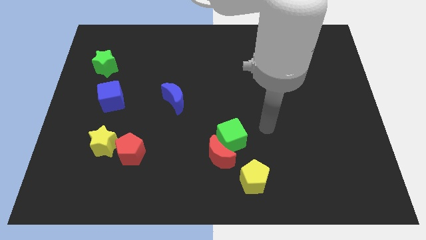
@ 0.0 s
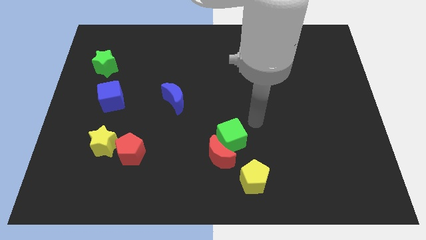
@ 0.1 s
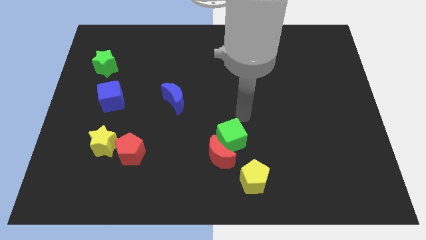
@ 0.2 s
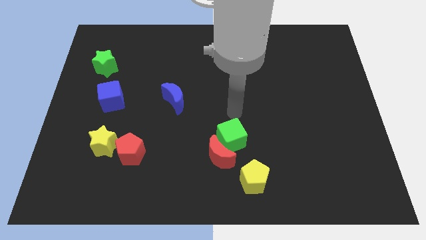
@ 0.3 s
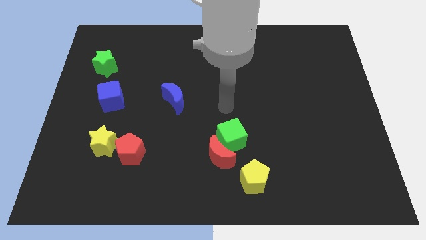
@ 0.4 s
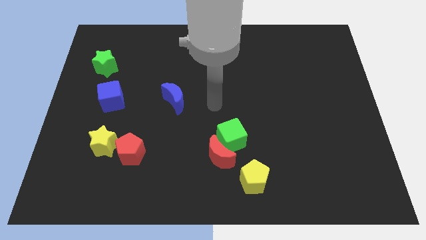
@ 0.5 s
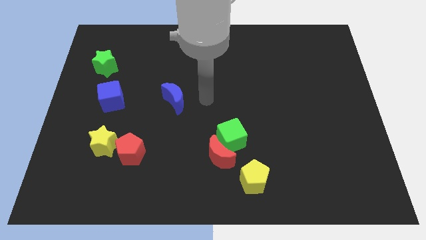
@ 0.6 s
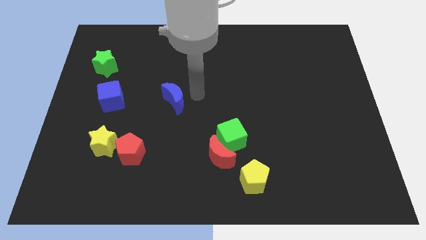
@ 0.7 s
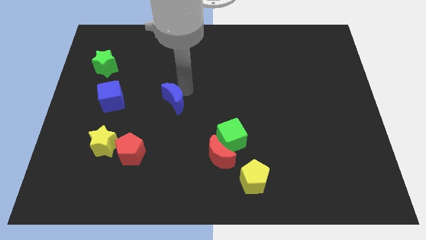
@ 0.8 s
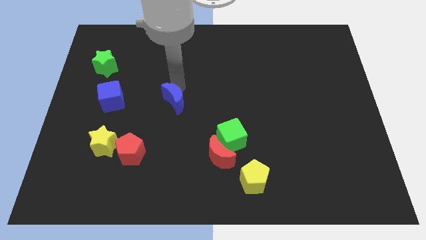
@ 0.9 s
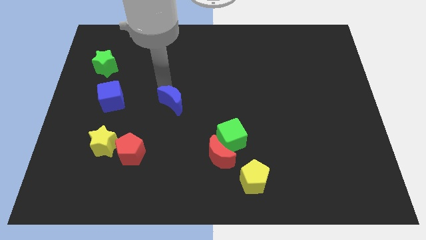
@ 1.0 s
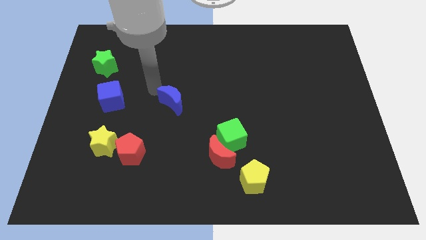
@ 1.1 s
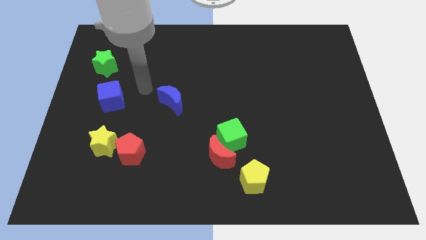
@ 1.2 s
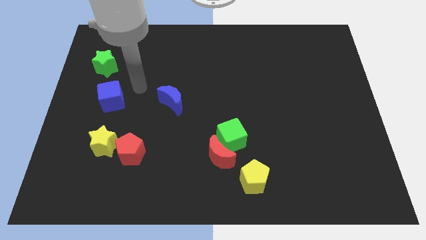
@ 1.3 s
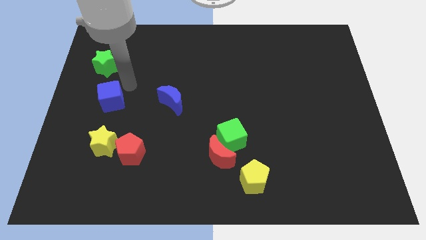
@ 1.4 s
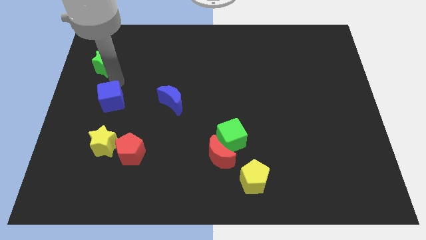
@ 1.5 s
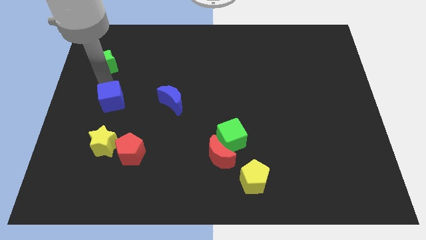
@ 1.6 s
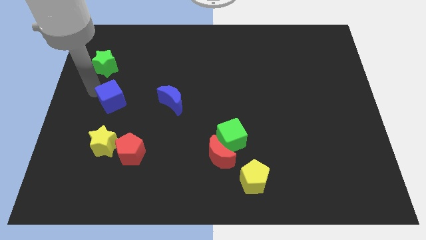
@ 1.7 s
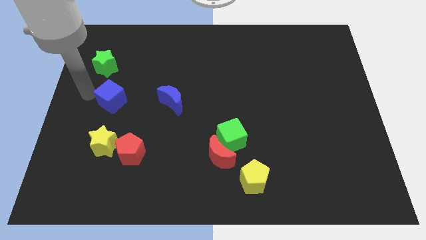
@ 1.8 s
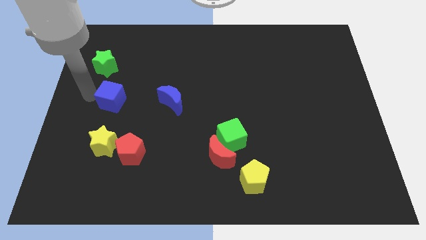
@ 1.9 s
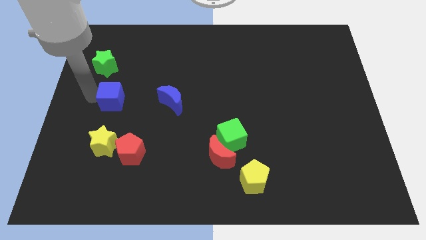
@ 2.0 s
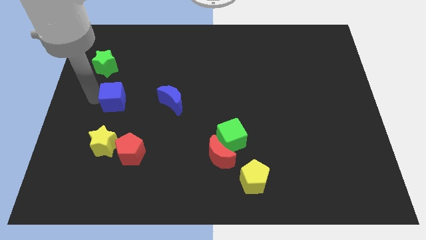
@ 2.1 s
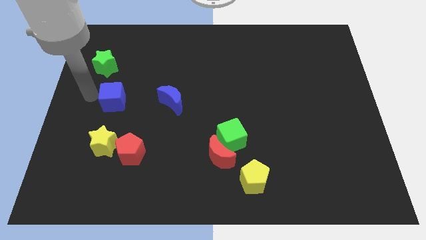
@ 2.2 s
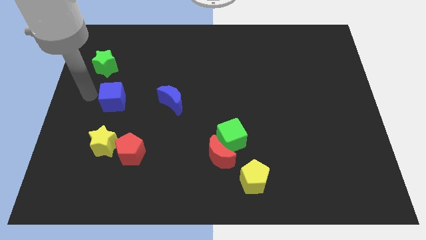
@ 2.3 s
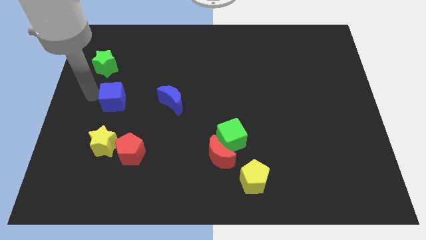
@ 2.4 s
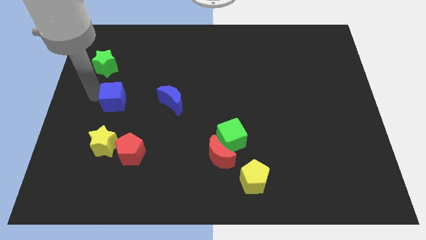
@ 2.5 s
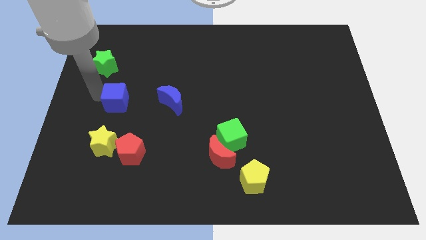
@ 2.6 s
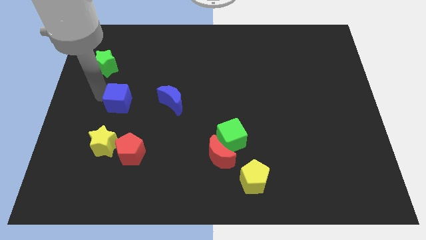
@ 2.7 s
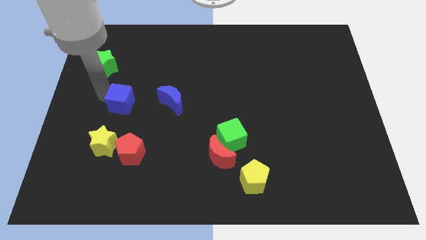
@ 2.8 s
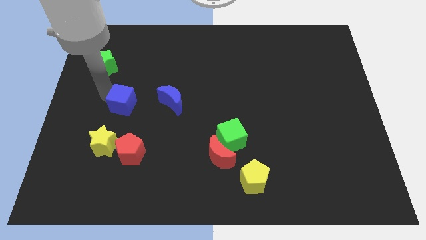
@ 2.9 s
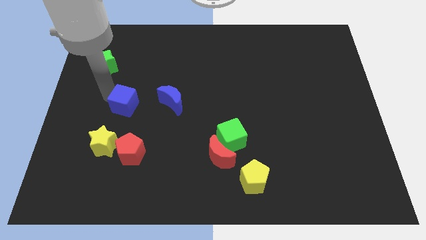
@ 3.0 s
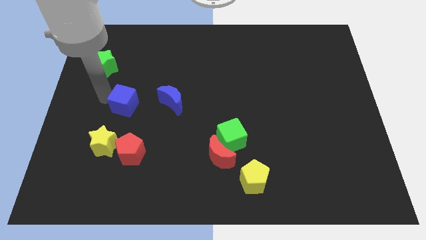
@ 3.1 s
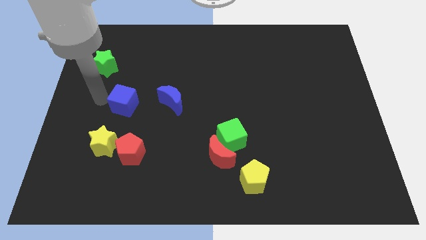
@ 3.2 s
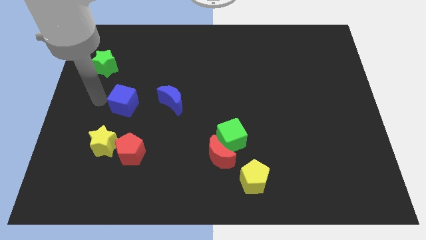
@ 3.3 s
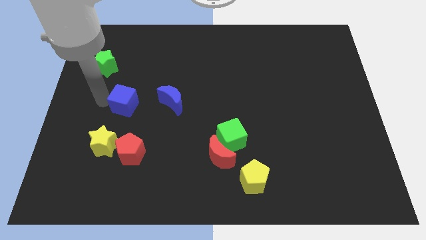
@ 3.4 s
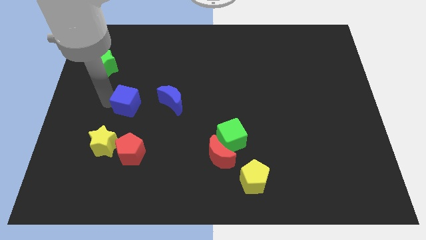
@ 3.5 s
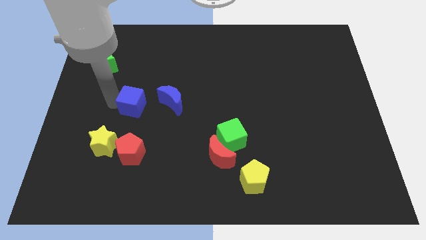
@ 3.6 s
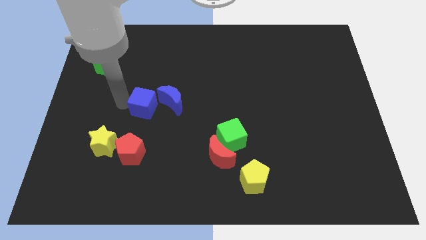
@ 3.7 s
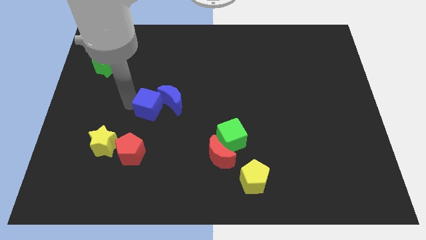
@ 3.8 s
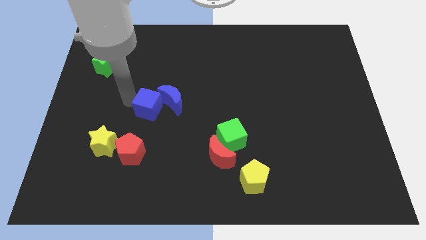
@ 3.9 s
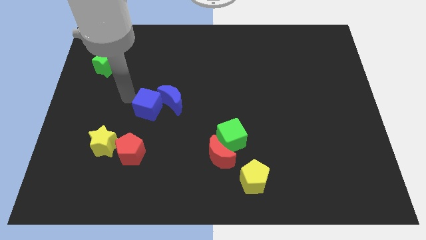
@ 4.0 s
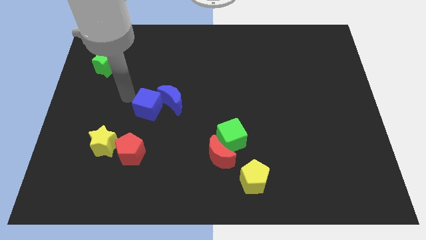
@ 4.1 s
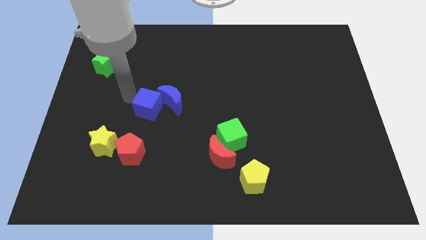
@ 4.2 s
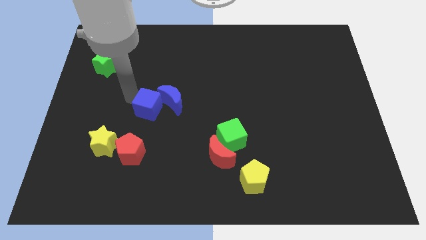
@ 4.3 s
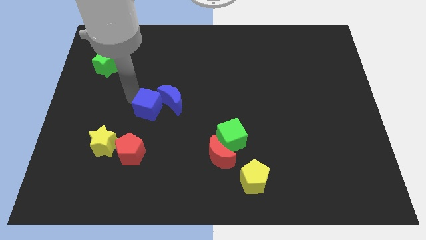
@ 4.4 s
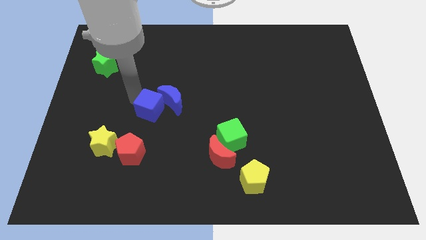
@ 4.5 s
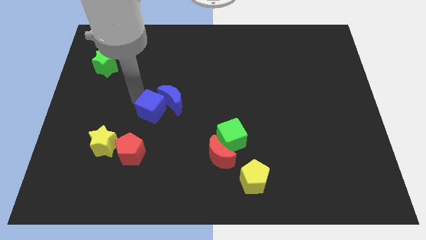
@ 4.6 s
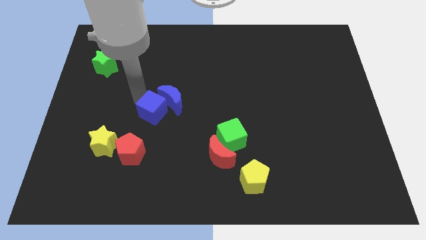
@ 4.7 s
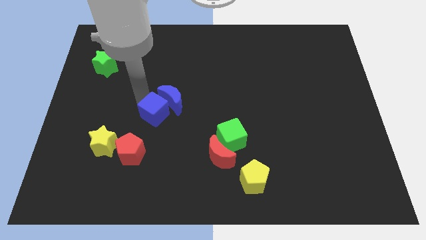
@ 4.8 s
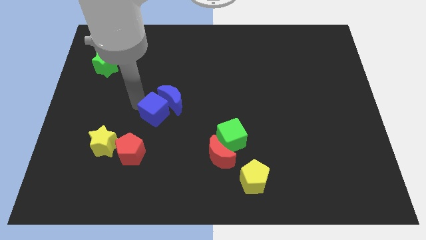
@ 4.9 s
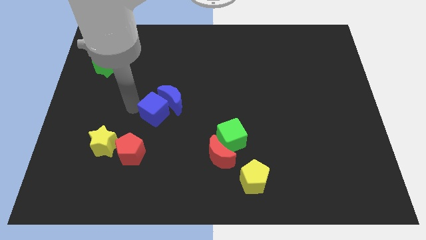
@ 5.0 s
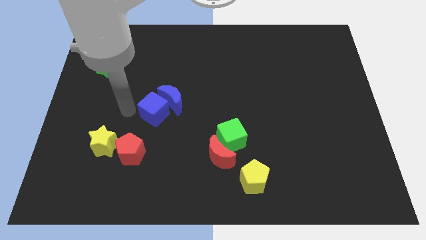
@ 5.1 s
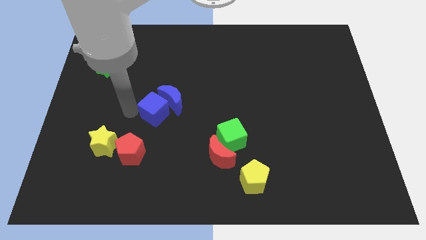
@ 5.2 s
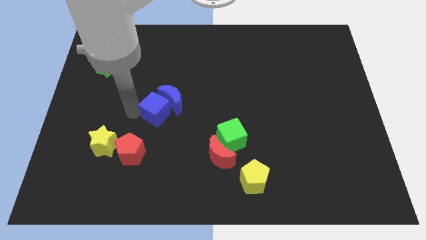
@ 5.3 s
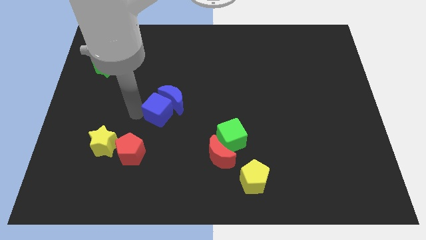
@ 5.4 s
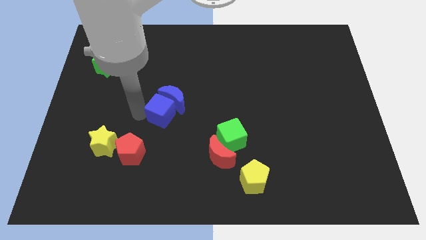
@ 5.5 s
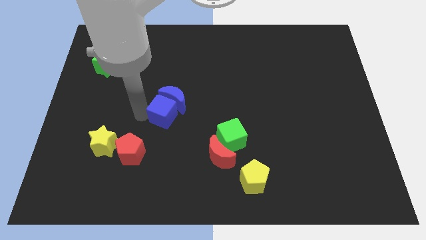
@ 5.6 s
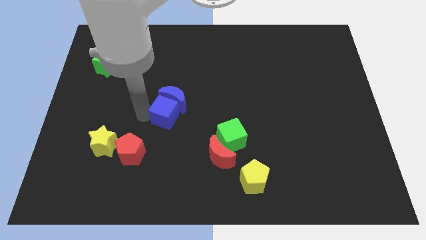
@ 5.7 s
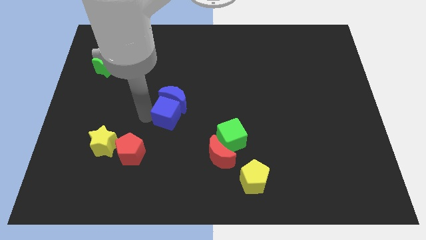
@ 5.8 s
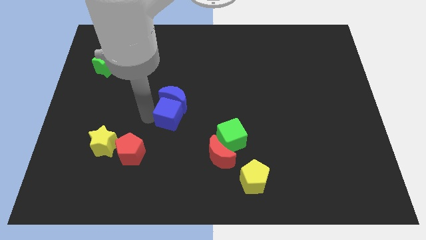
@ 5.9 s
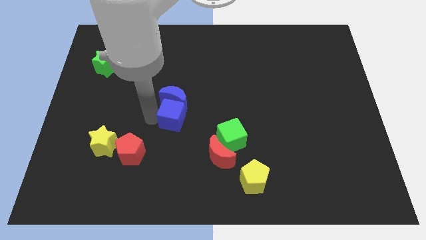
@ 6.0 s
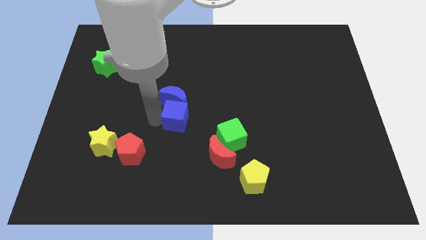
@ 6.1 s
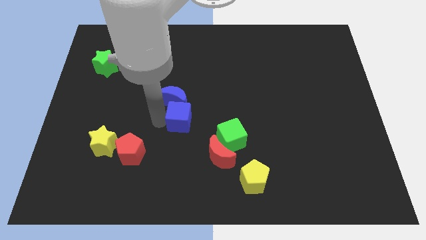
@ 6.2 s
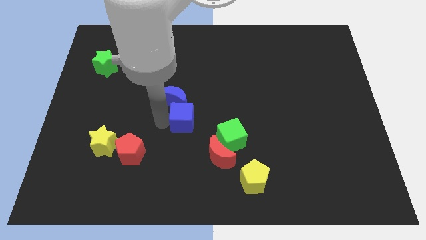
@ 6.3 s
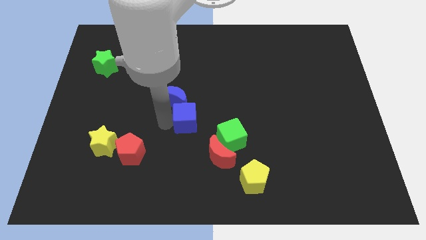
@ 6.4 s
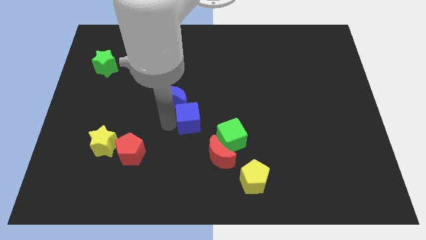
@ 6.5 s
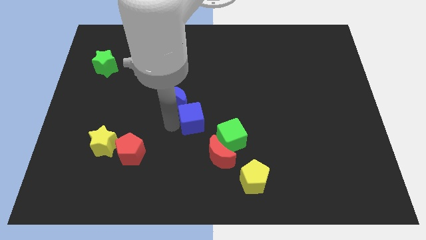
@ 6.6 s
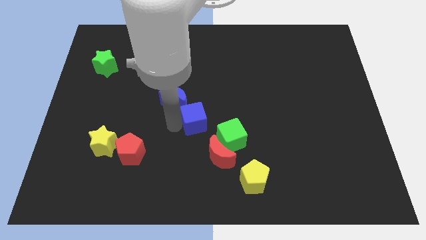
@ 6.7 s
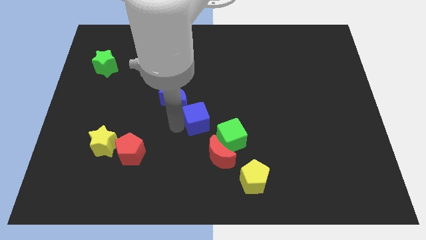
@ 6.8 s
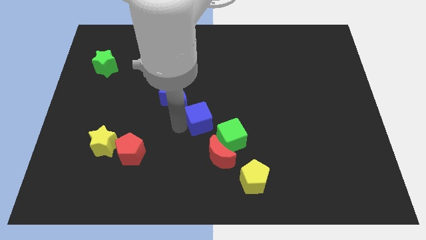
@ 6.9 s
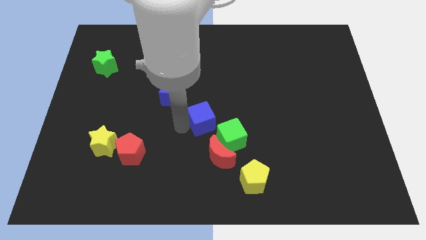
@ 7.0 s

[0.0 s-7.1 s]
move the blue cube right

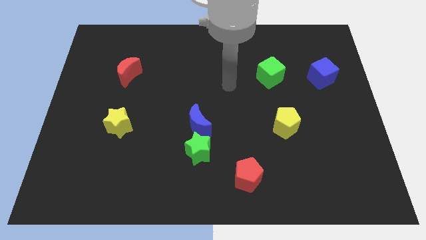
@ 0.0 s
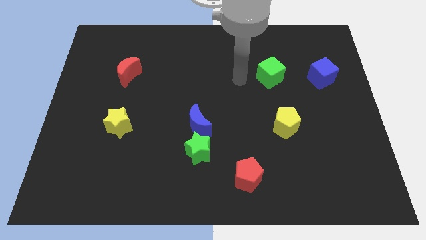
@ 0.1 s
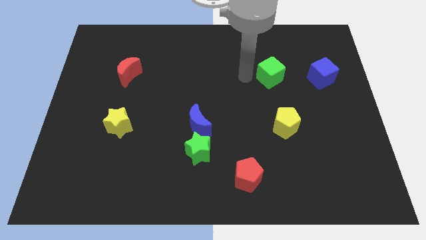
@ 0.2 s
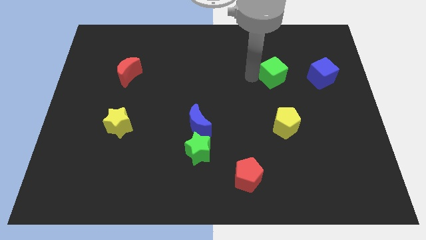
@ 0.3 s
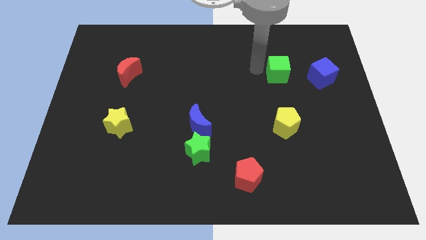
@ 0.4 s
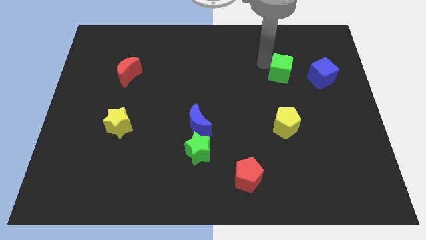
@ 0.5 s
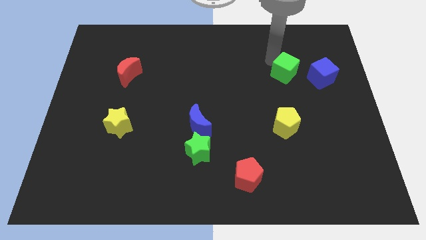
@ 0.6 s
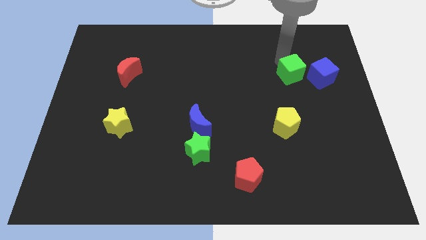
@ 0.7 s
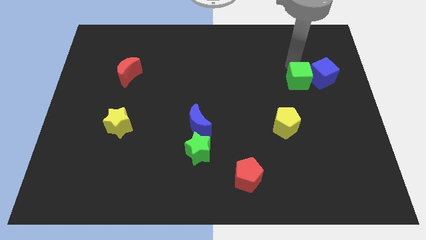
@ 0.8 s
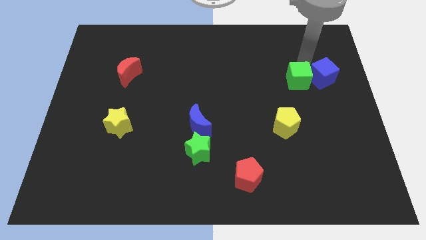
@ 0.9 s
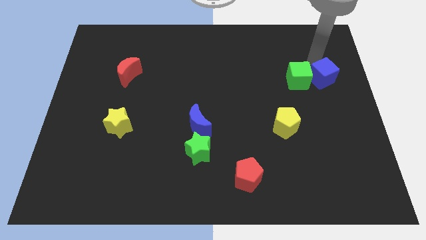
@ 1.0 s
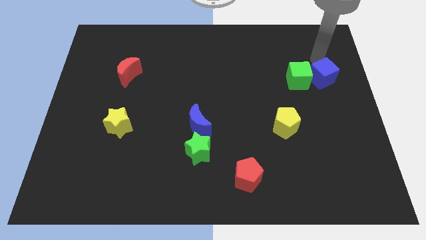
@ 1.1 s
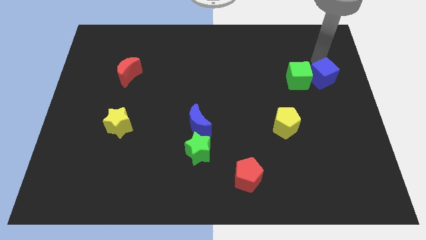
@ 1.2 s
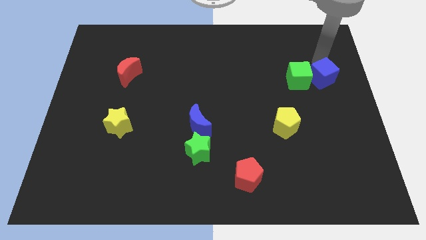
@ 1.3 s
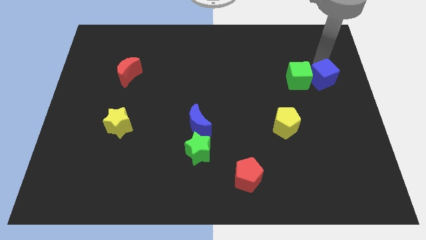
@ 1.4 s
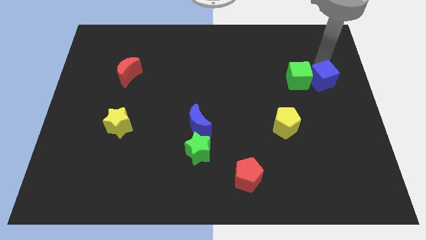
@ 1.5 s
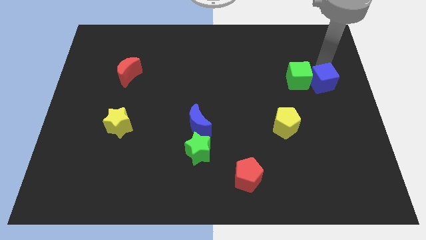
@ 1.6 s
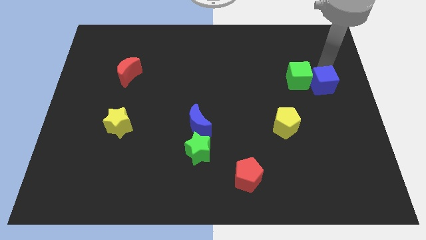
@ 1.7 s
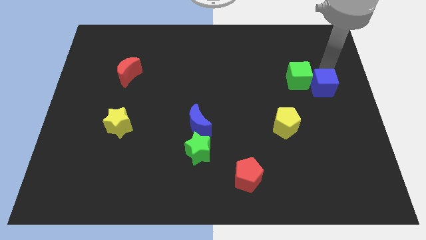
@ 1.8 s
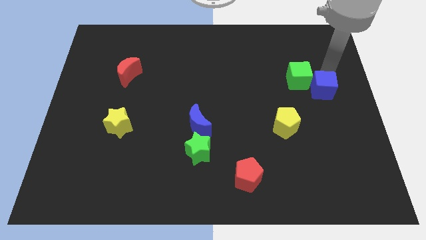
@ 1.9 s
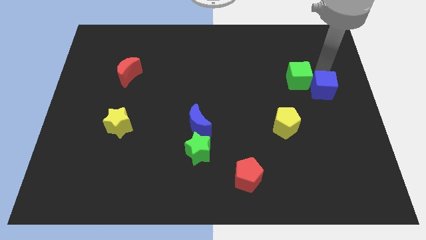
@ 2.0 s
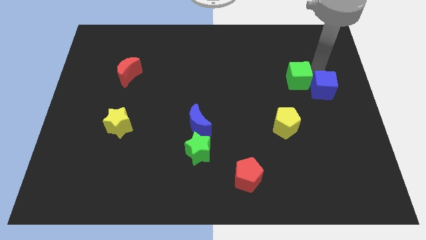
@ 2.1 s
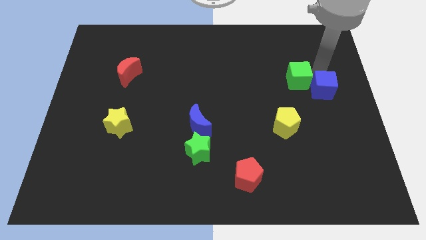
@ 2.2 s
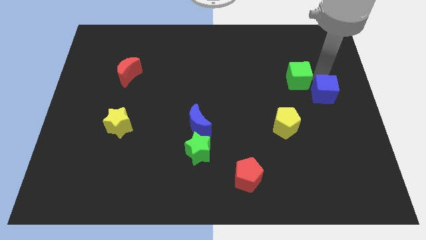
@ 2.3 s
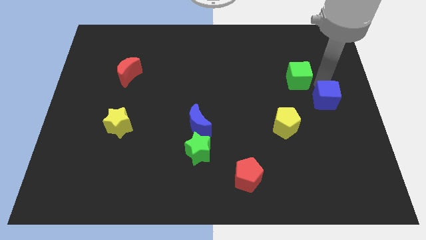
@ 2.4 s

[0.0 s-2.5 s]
slightly move the blue cube down
